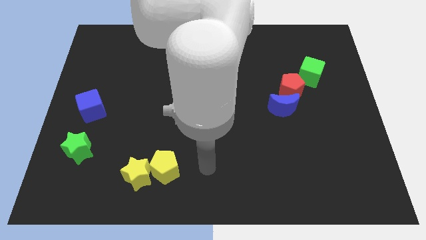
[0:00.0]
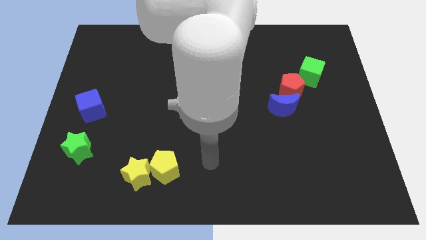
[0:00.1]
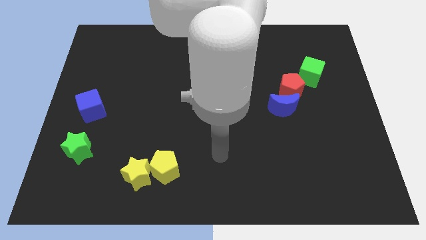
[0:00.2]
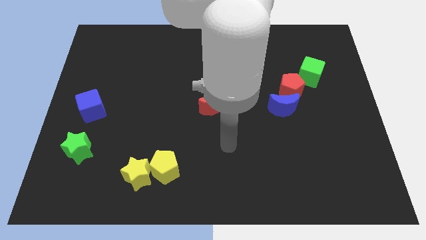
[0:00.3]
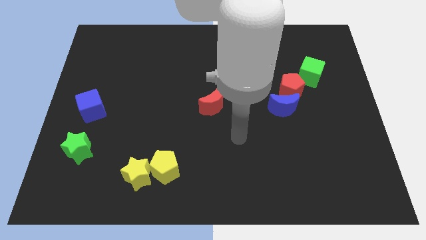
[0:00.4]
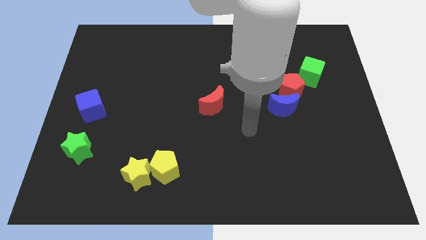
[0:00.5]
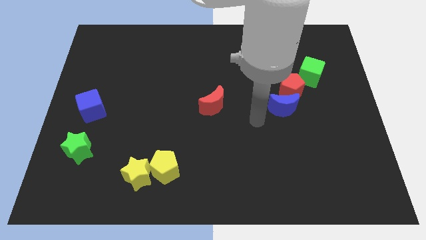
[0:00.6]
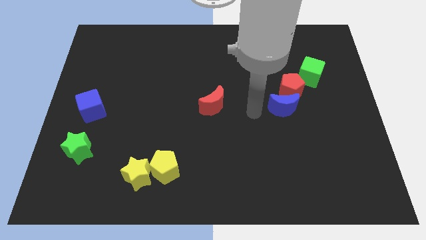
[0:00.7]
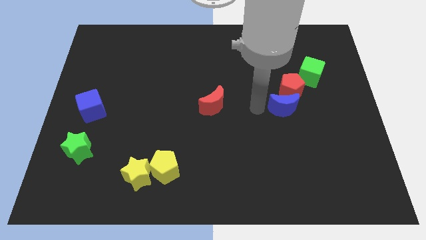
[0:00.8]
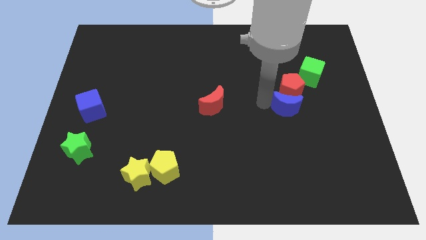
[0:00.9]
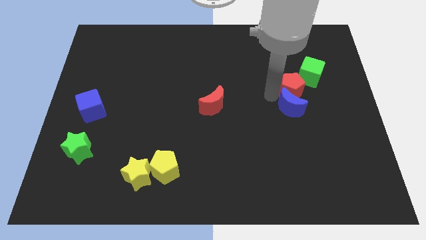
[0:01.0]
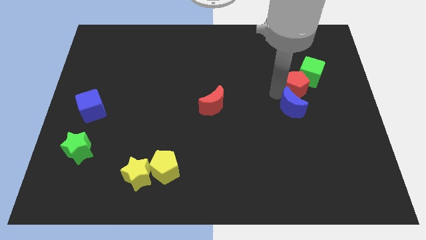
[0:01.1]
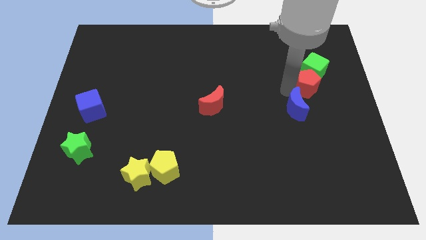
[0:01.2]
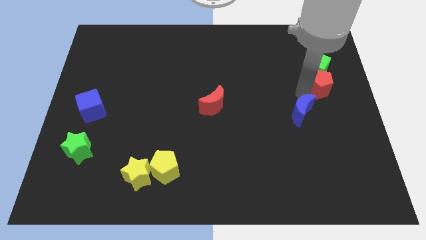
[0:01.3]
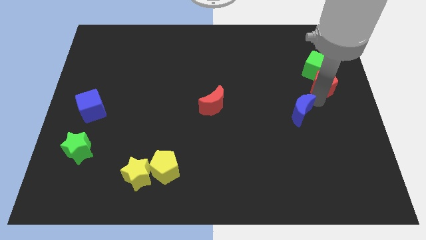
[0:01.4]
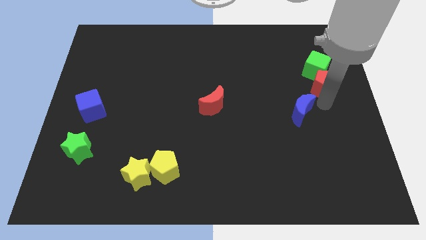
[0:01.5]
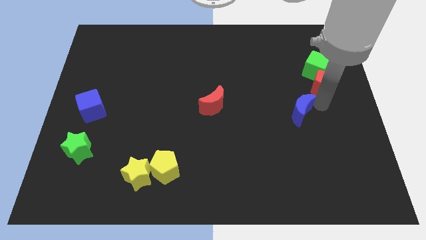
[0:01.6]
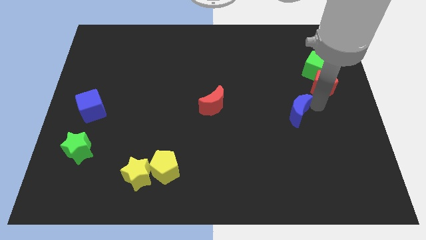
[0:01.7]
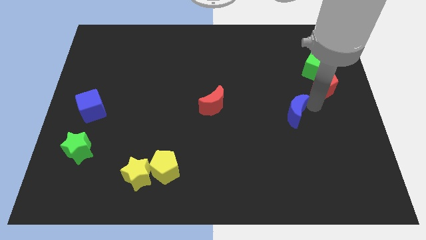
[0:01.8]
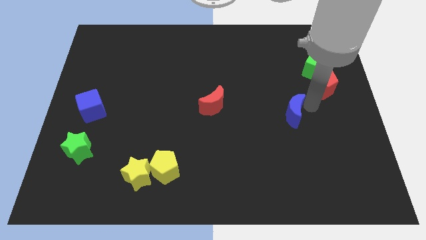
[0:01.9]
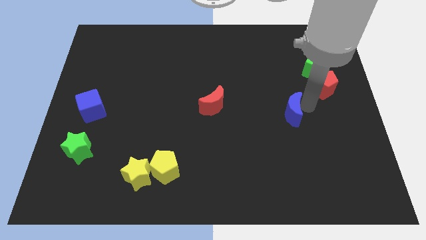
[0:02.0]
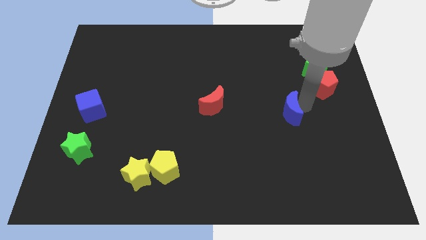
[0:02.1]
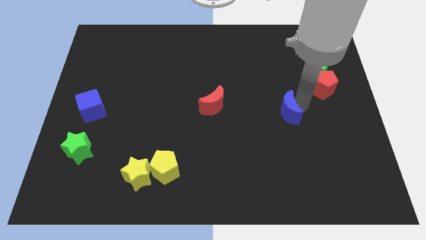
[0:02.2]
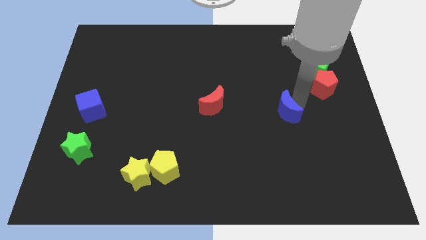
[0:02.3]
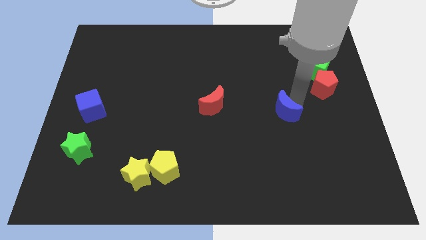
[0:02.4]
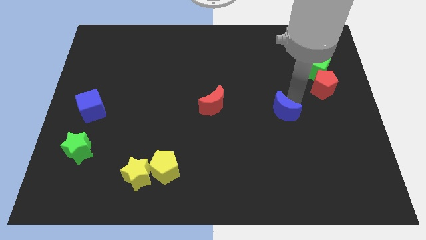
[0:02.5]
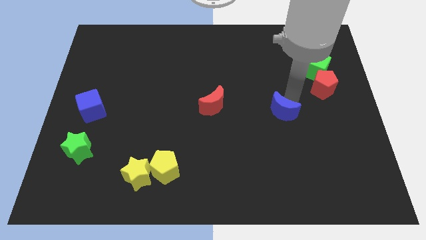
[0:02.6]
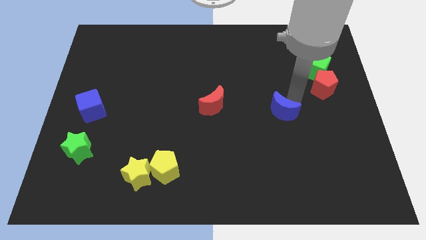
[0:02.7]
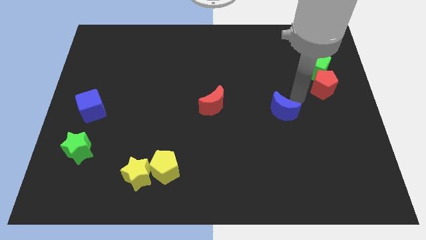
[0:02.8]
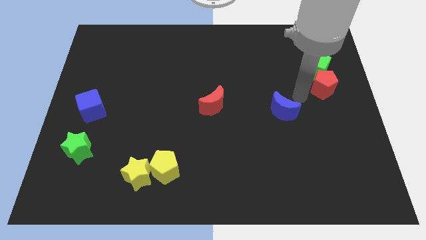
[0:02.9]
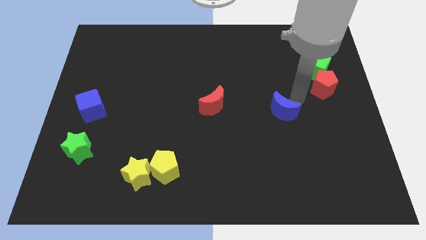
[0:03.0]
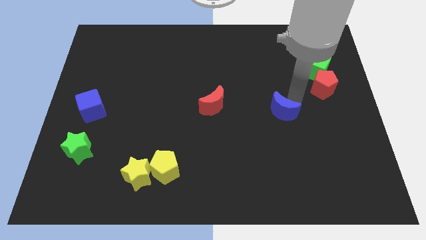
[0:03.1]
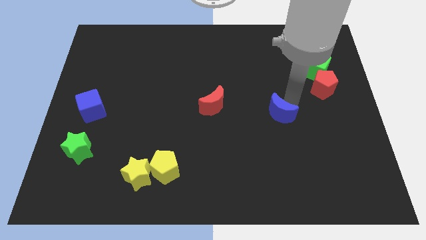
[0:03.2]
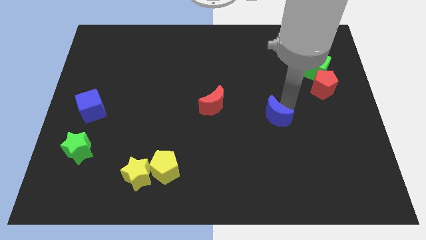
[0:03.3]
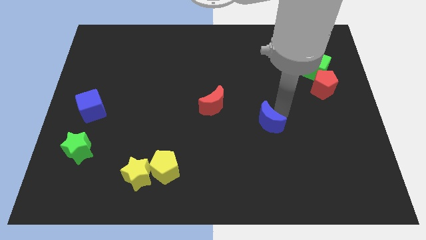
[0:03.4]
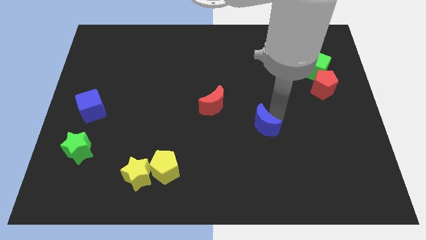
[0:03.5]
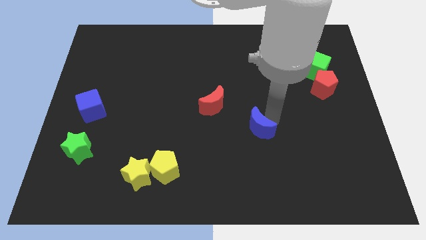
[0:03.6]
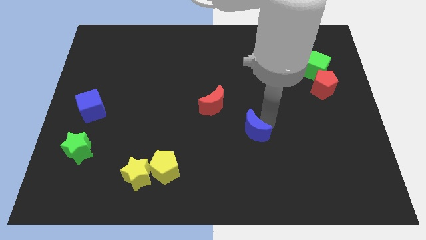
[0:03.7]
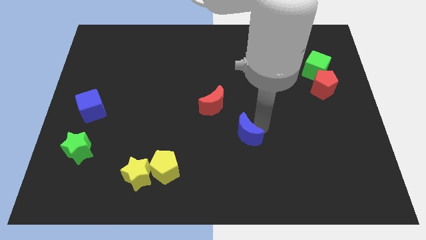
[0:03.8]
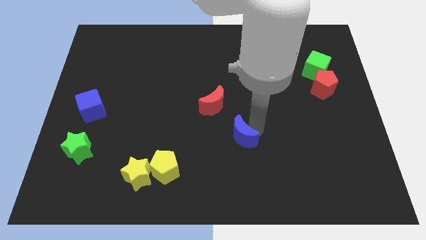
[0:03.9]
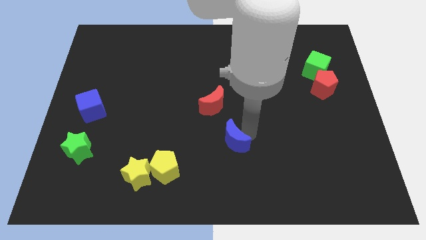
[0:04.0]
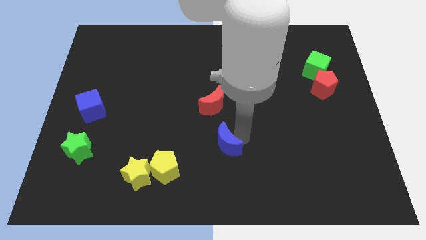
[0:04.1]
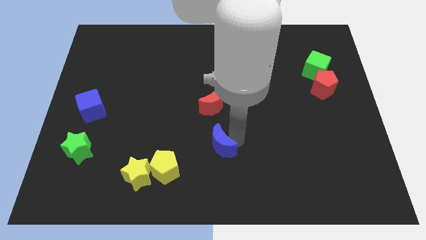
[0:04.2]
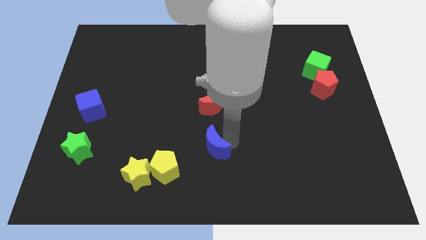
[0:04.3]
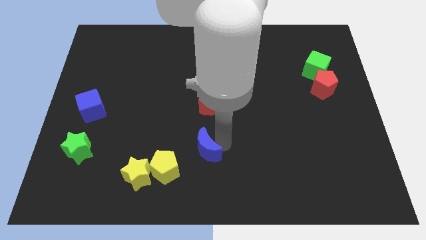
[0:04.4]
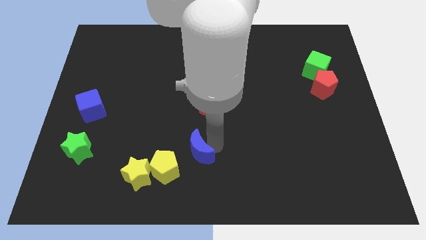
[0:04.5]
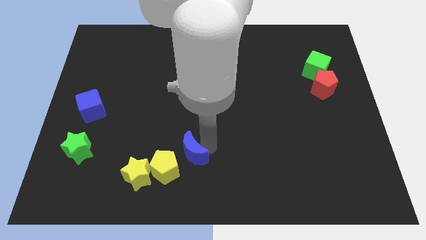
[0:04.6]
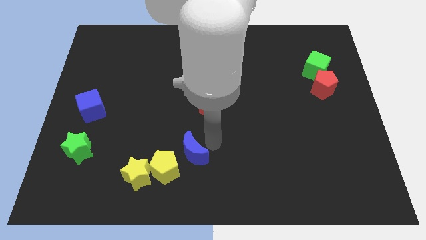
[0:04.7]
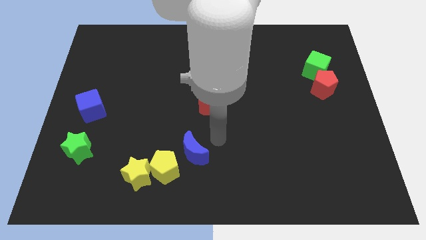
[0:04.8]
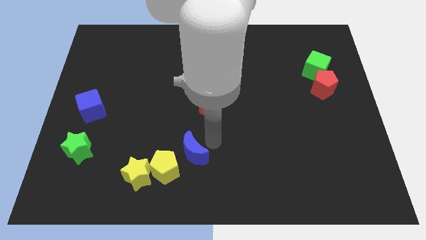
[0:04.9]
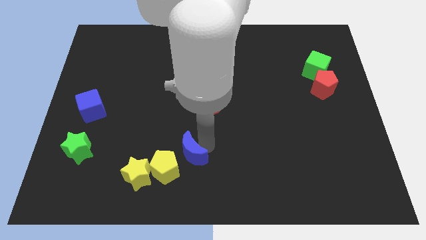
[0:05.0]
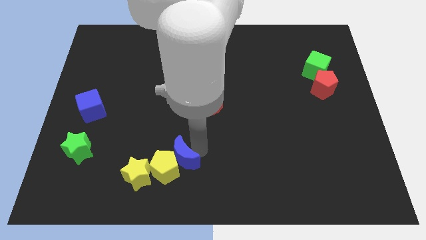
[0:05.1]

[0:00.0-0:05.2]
move the blue moon close to the yellow pentagon

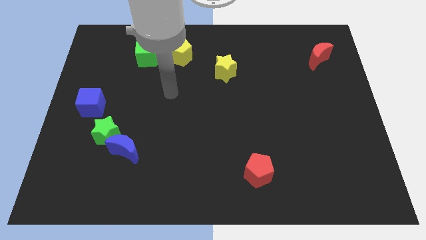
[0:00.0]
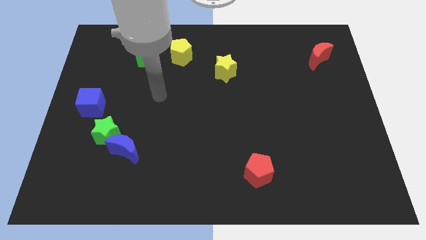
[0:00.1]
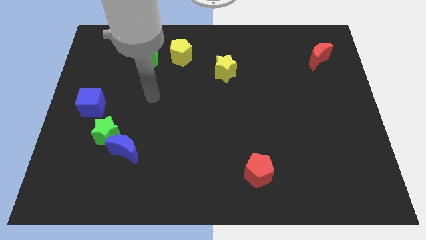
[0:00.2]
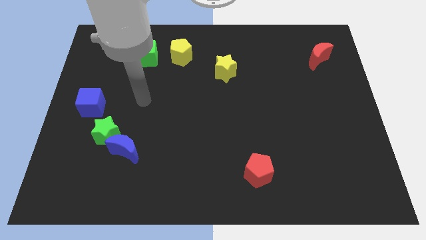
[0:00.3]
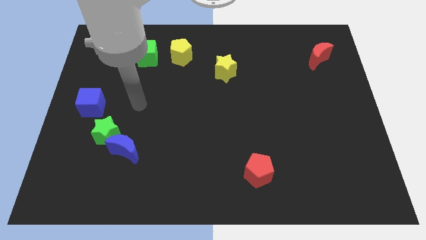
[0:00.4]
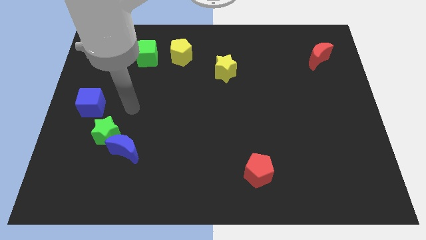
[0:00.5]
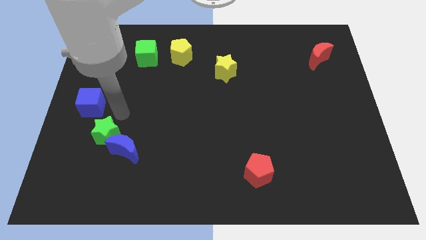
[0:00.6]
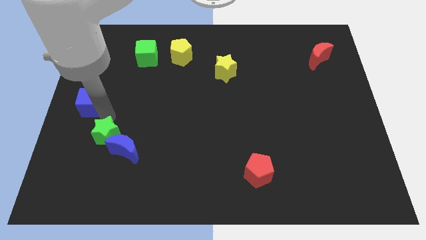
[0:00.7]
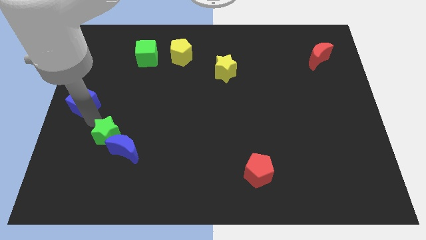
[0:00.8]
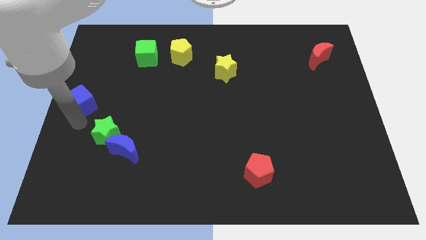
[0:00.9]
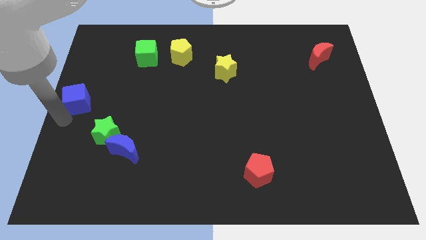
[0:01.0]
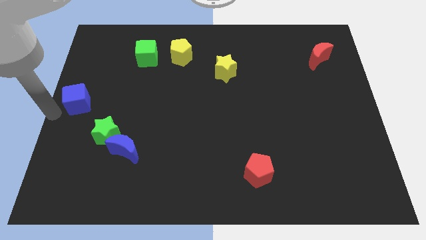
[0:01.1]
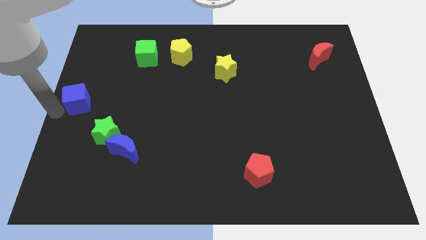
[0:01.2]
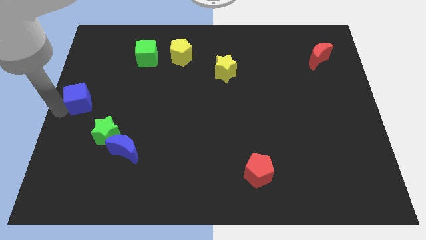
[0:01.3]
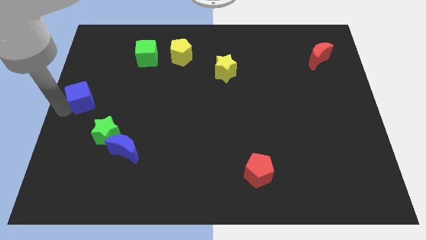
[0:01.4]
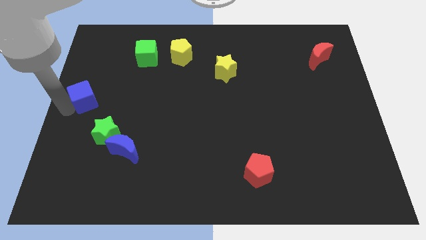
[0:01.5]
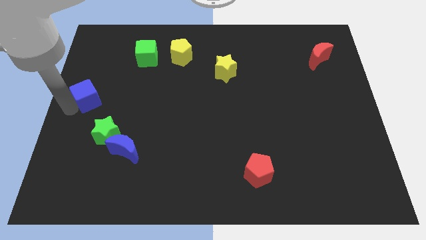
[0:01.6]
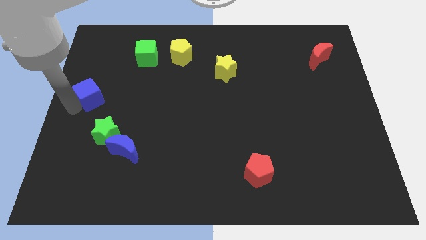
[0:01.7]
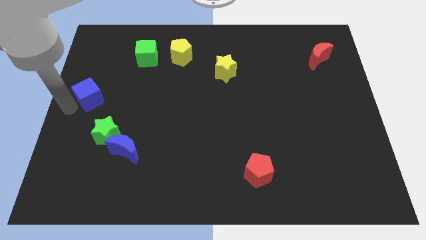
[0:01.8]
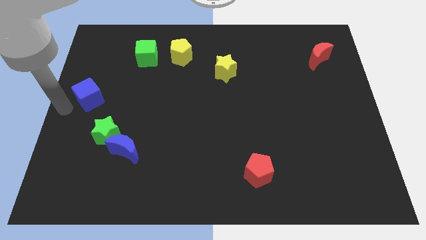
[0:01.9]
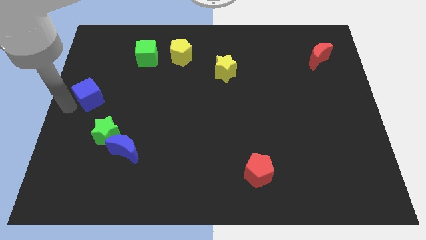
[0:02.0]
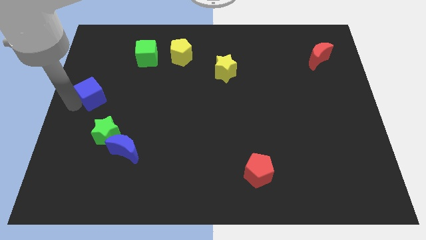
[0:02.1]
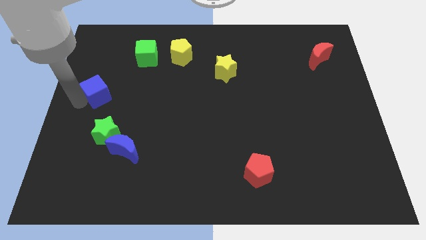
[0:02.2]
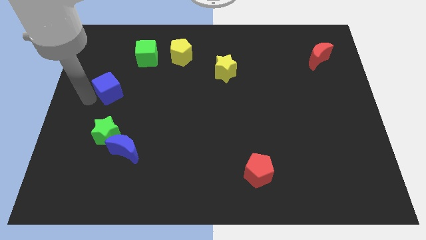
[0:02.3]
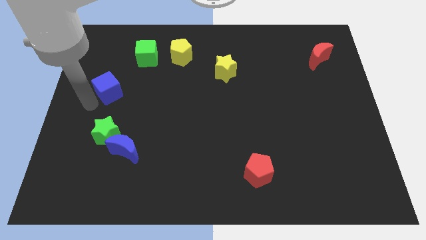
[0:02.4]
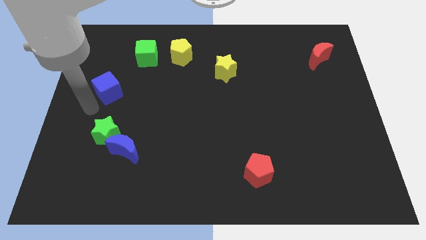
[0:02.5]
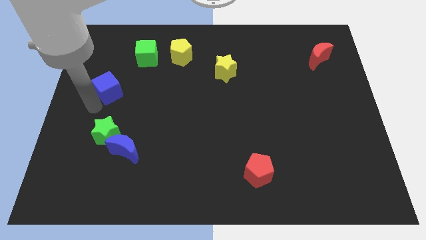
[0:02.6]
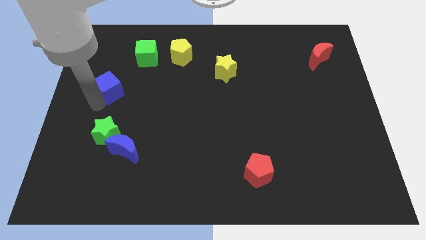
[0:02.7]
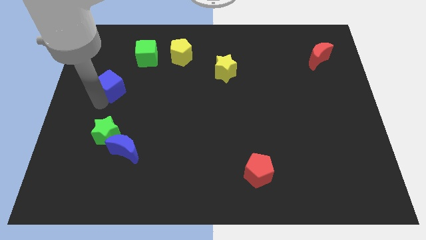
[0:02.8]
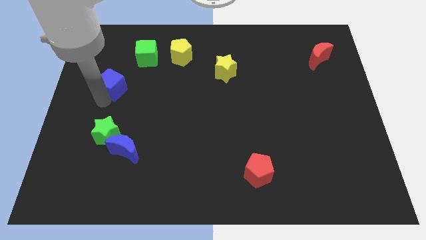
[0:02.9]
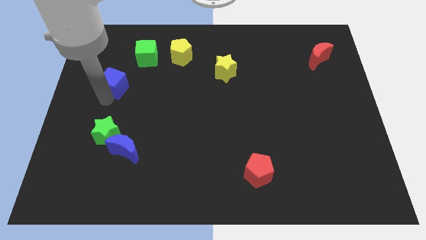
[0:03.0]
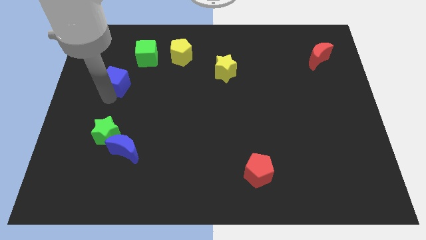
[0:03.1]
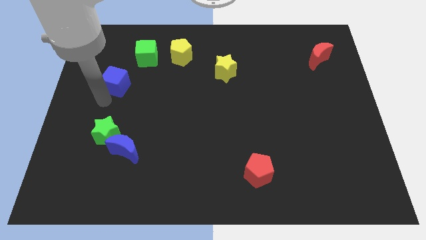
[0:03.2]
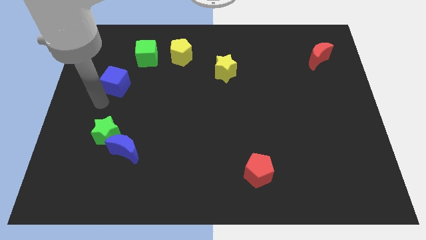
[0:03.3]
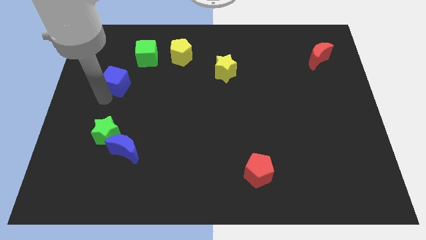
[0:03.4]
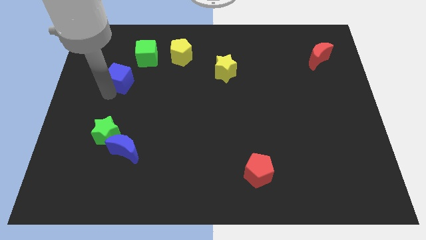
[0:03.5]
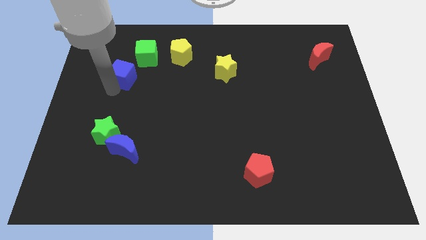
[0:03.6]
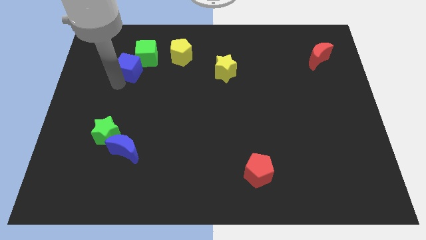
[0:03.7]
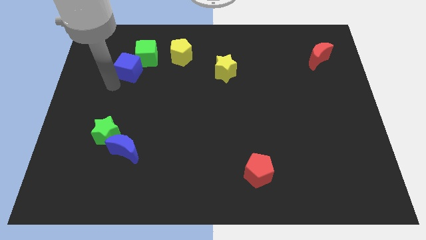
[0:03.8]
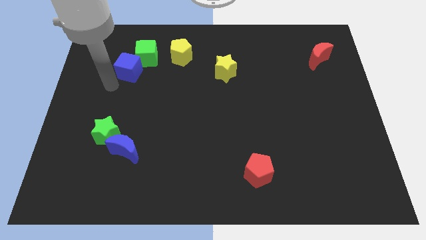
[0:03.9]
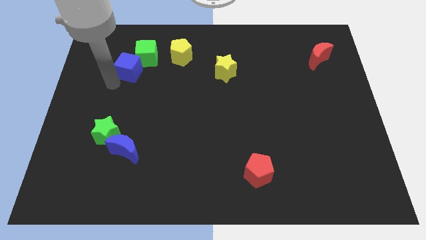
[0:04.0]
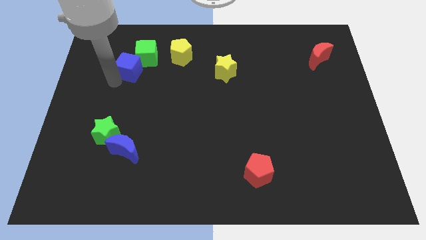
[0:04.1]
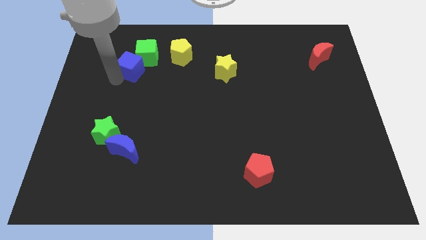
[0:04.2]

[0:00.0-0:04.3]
move the blue cube next to the green cube
